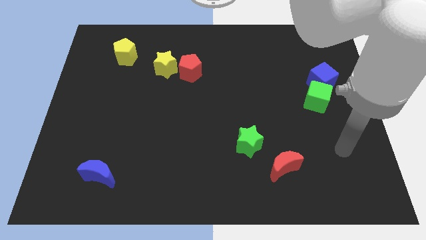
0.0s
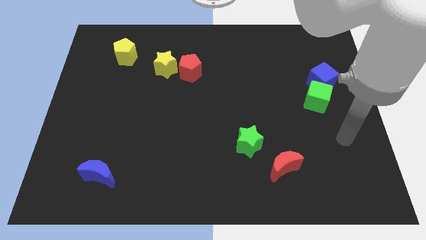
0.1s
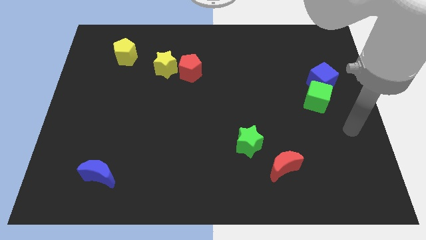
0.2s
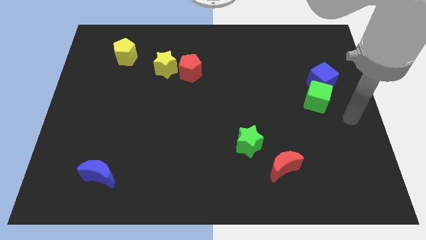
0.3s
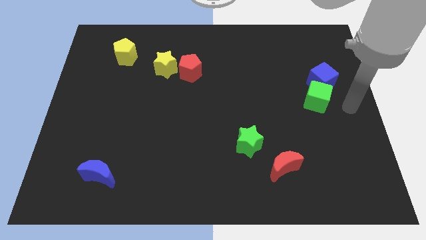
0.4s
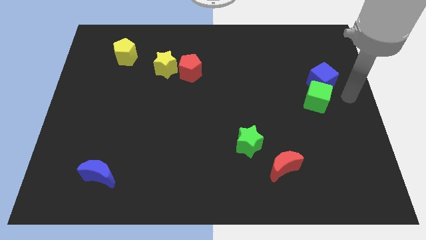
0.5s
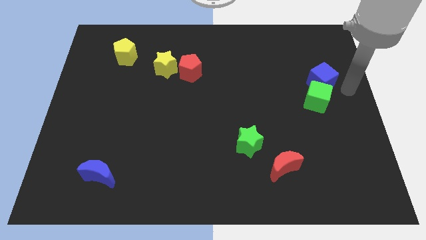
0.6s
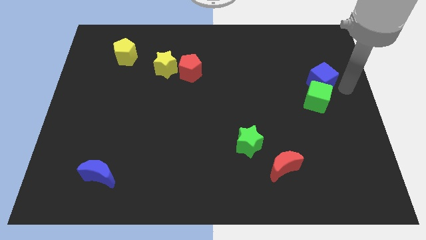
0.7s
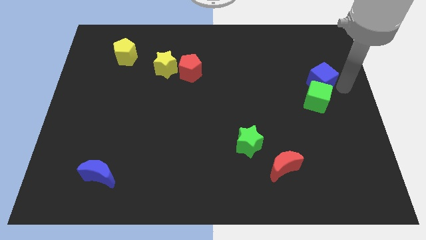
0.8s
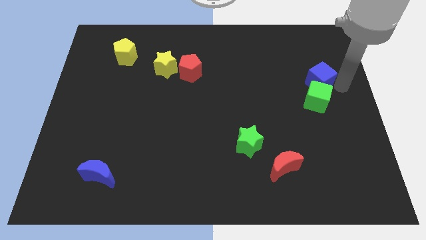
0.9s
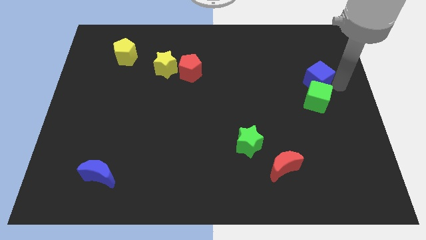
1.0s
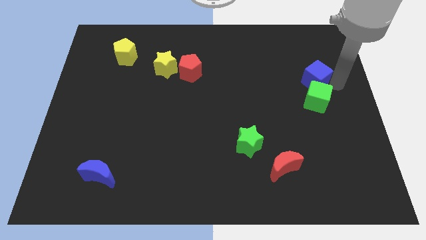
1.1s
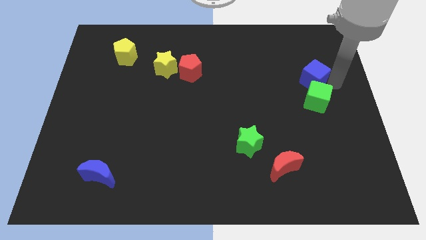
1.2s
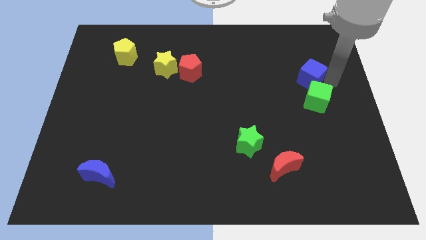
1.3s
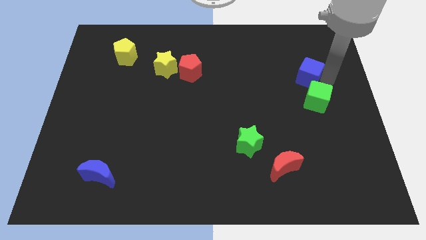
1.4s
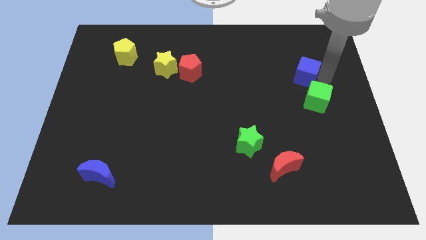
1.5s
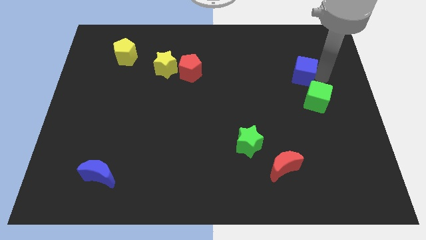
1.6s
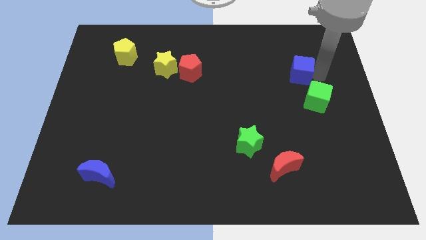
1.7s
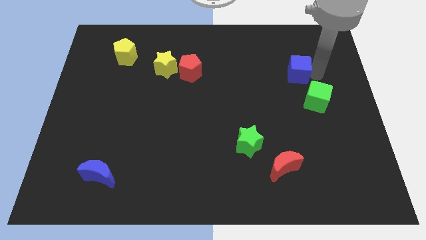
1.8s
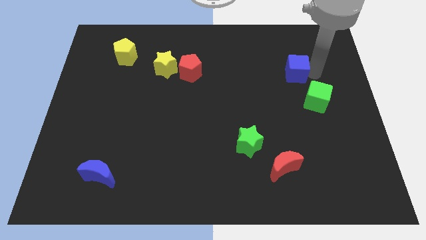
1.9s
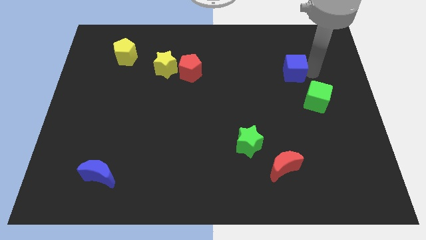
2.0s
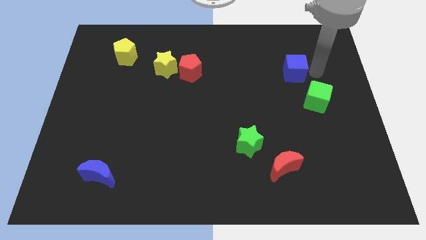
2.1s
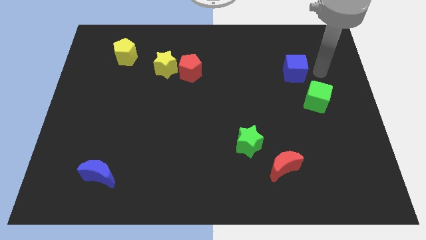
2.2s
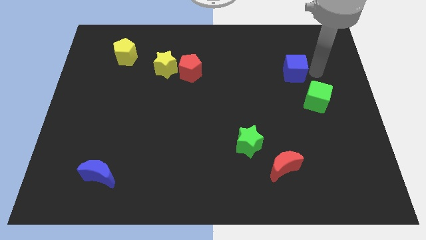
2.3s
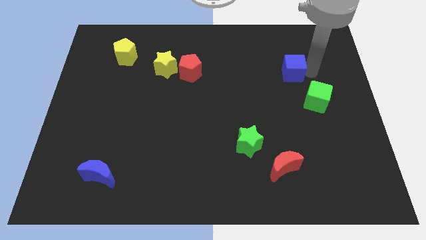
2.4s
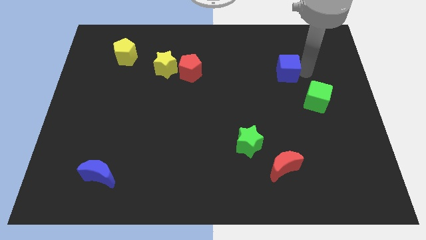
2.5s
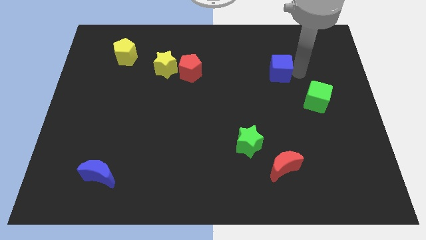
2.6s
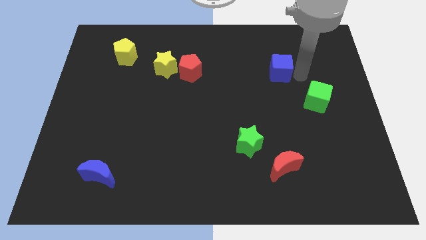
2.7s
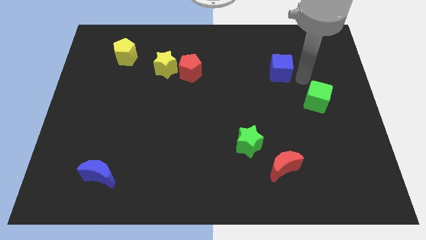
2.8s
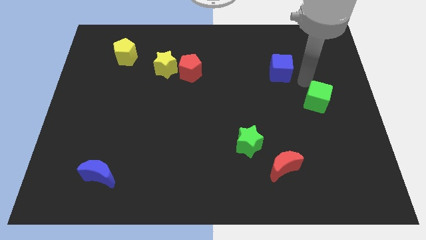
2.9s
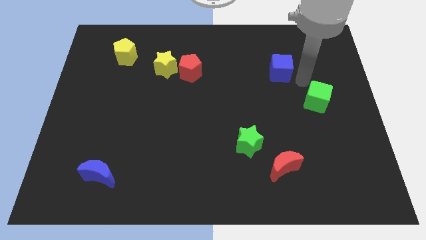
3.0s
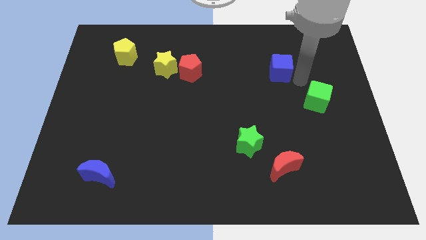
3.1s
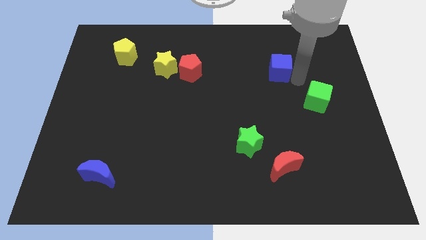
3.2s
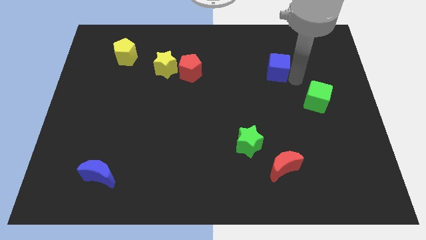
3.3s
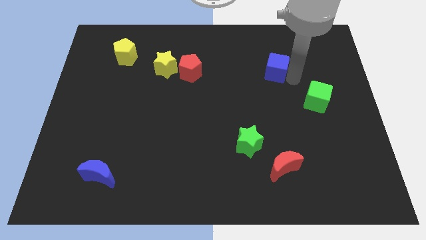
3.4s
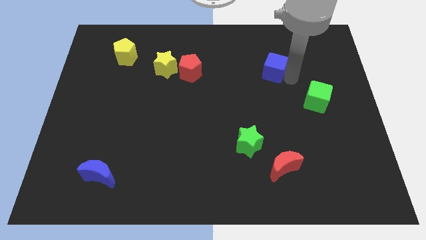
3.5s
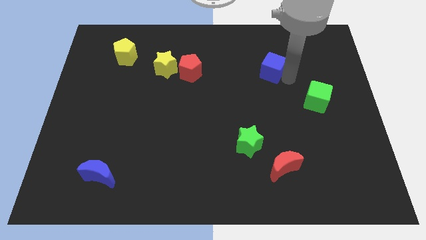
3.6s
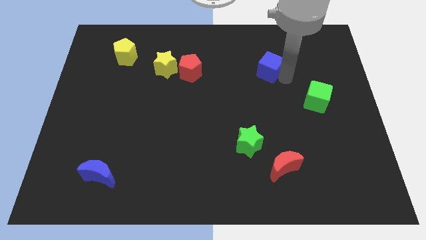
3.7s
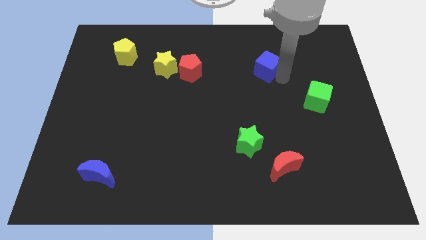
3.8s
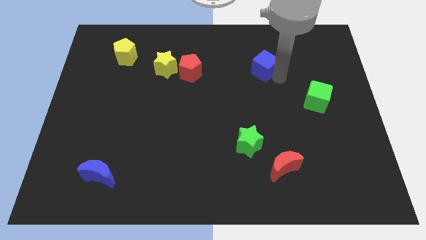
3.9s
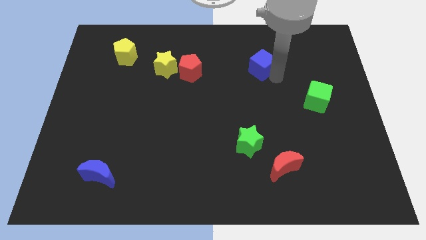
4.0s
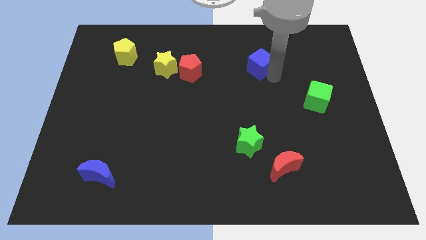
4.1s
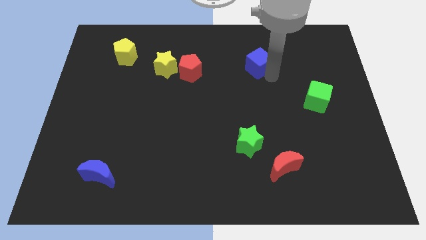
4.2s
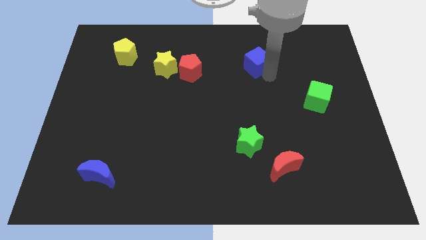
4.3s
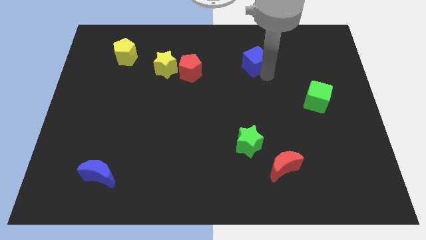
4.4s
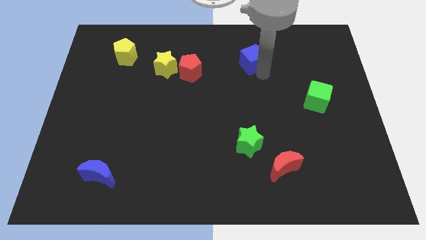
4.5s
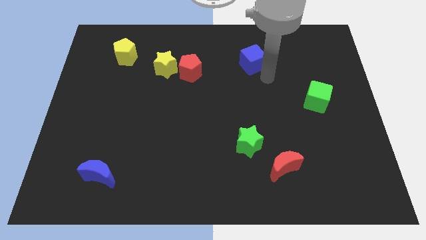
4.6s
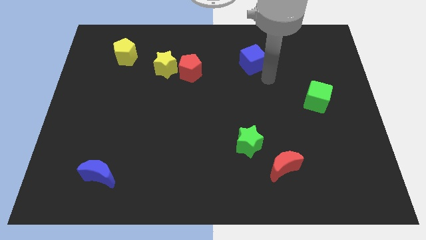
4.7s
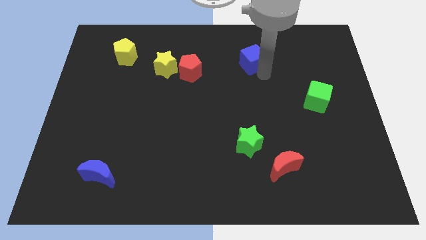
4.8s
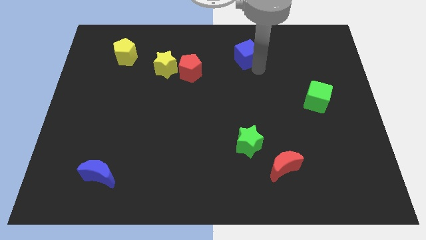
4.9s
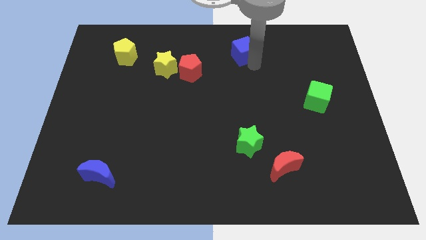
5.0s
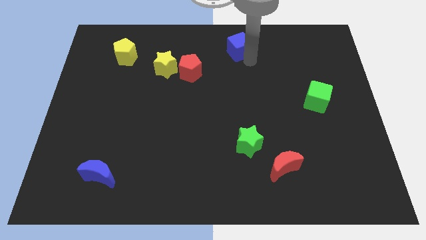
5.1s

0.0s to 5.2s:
slide the blue cube to the top side

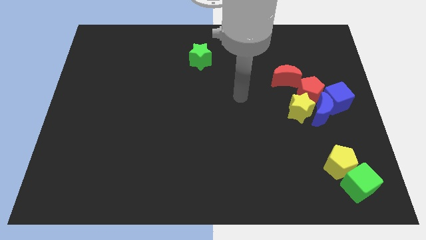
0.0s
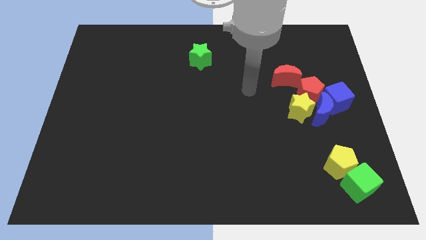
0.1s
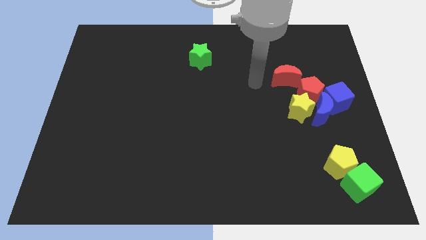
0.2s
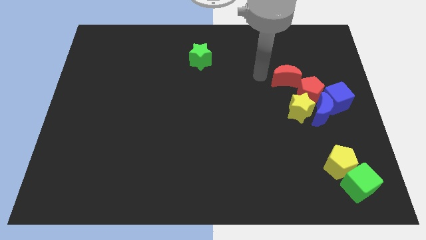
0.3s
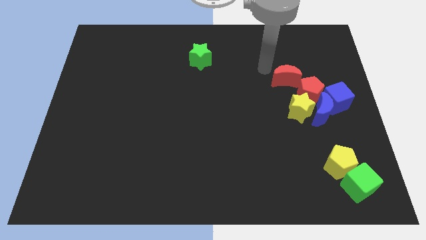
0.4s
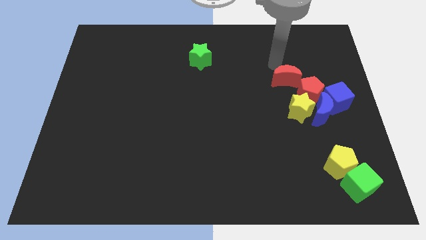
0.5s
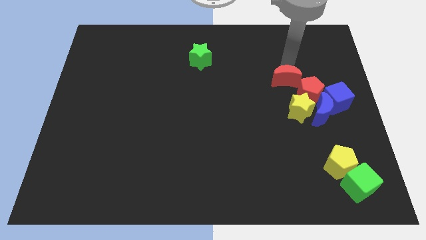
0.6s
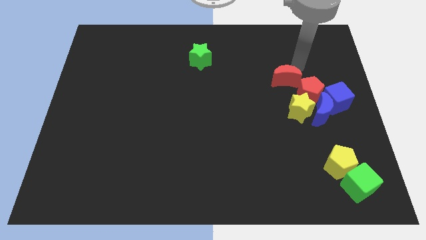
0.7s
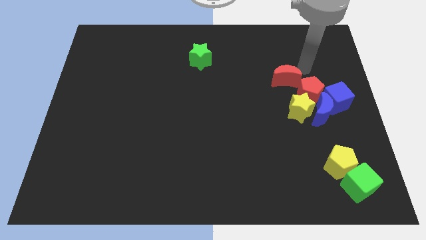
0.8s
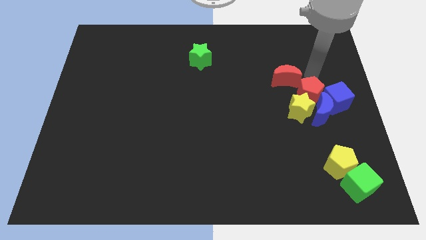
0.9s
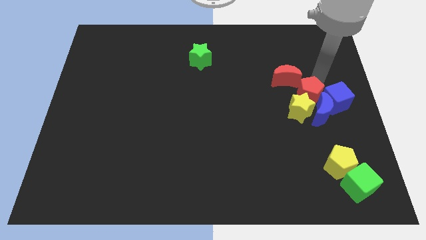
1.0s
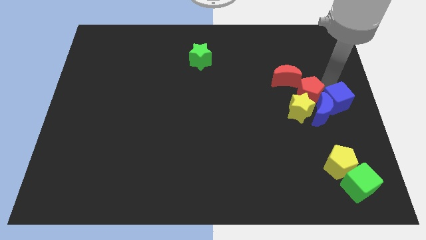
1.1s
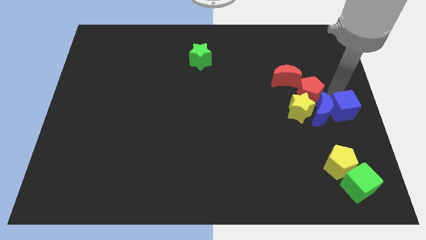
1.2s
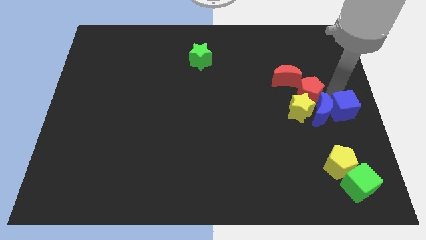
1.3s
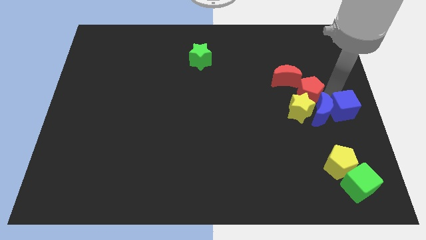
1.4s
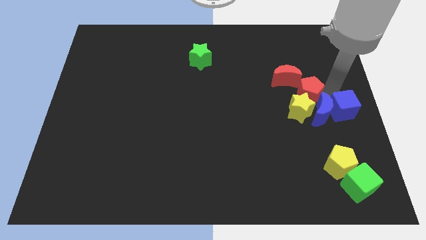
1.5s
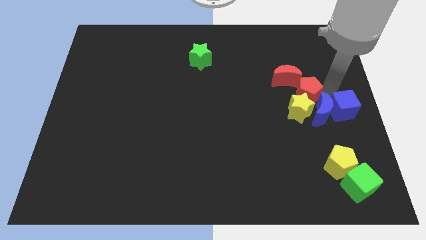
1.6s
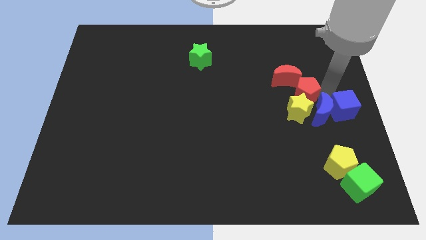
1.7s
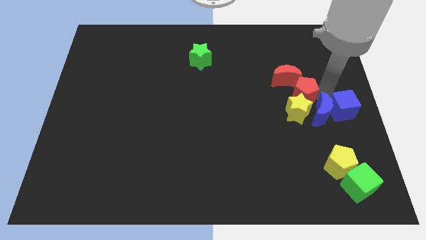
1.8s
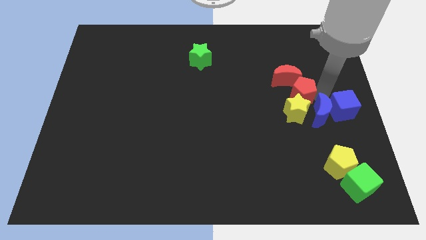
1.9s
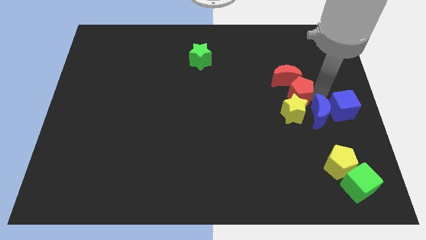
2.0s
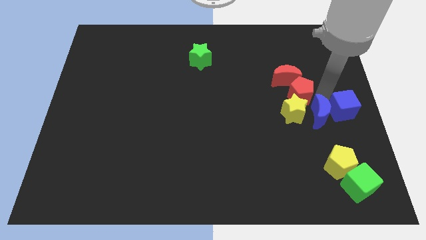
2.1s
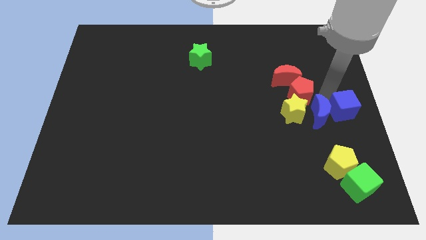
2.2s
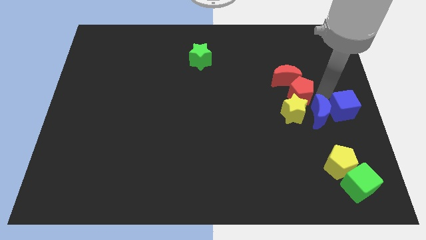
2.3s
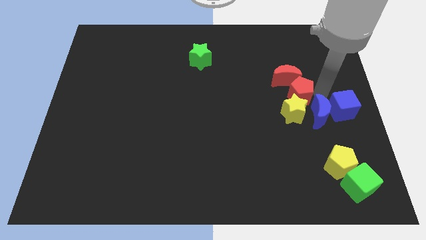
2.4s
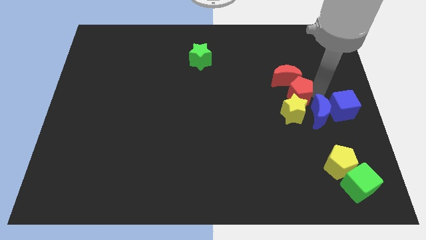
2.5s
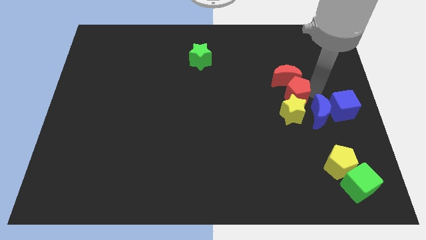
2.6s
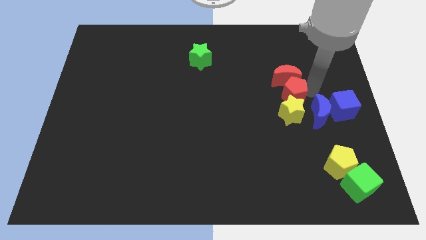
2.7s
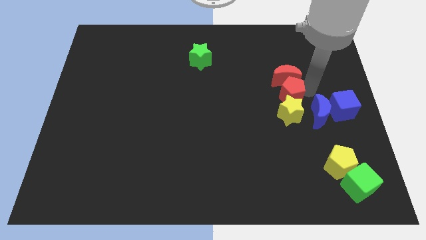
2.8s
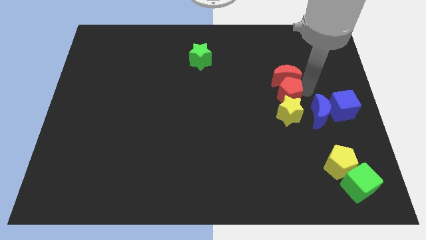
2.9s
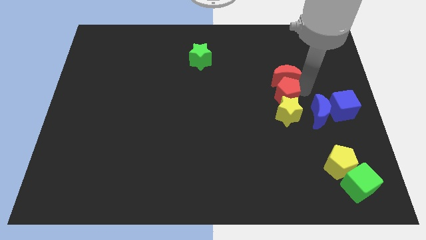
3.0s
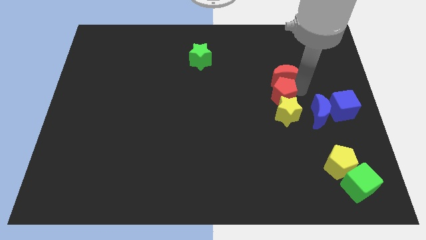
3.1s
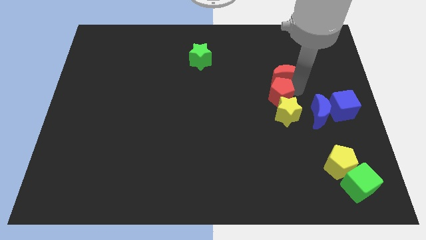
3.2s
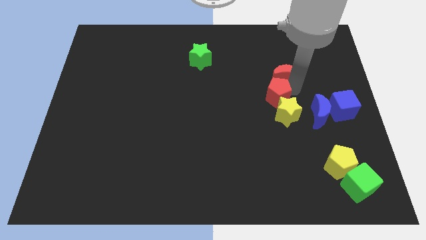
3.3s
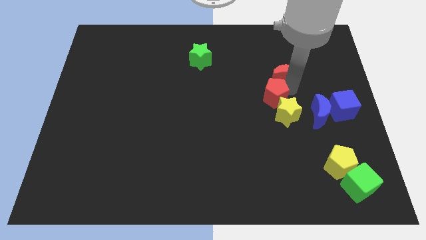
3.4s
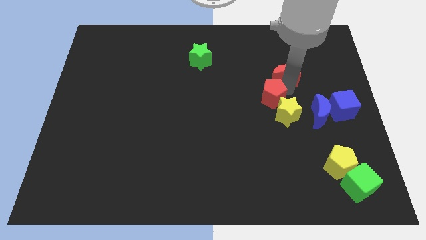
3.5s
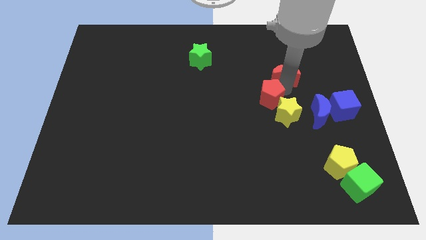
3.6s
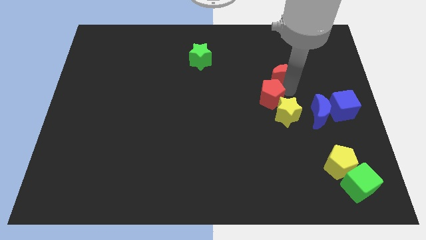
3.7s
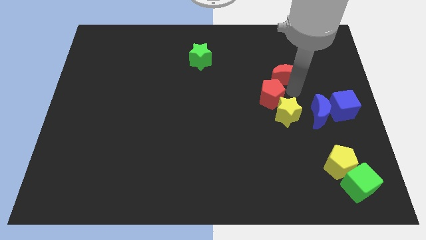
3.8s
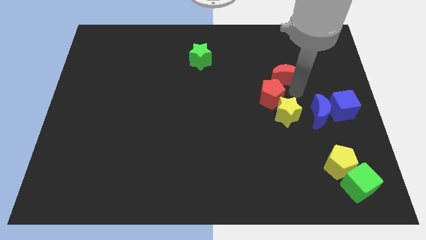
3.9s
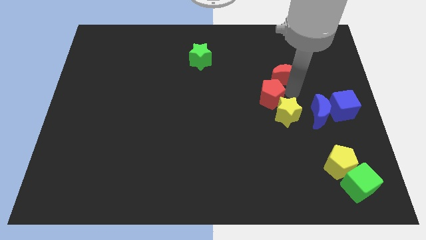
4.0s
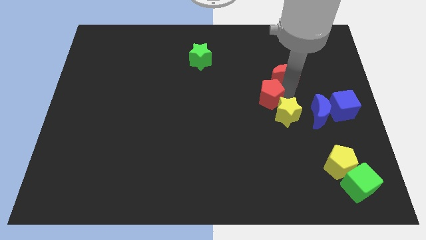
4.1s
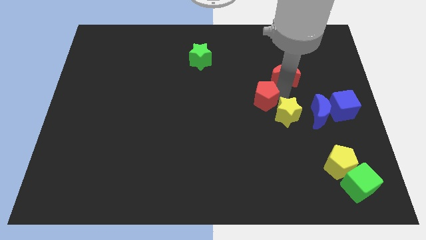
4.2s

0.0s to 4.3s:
slide the red pentagon to the center of the board
